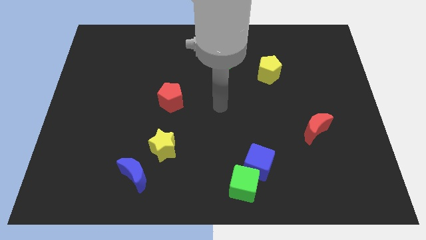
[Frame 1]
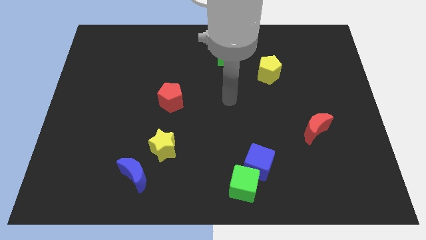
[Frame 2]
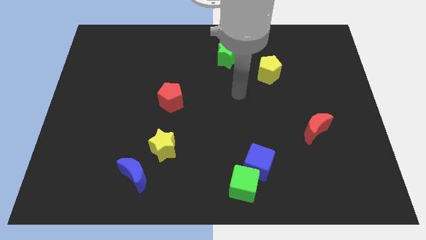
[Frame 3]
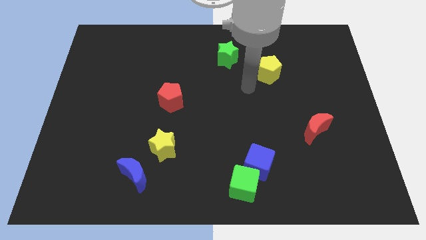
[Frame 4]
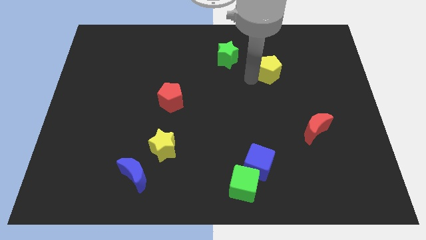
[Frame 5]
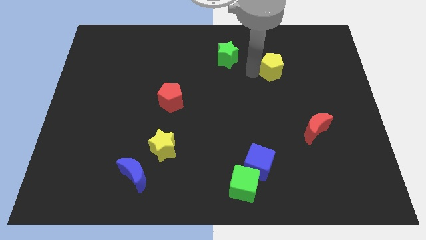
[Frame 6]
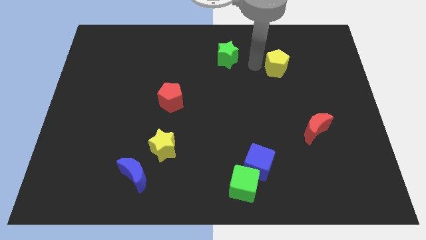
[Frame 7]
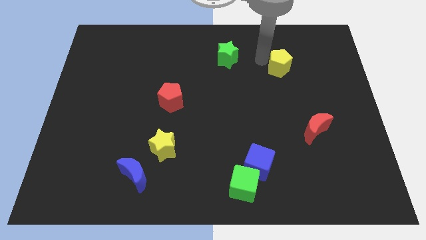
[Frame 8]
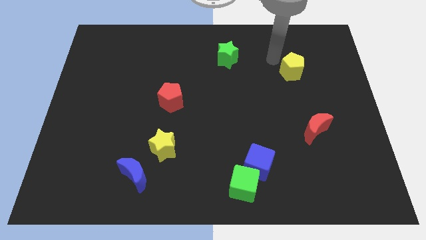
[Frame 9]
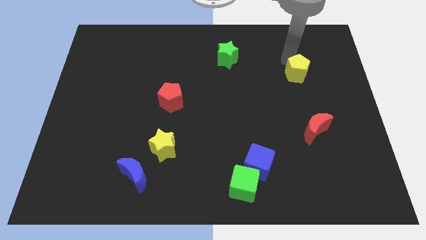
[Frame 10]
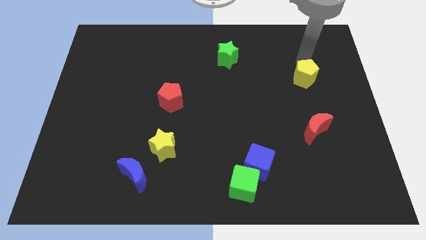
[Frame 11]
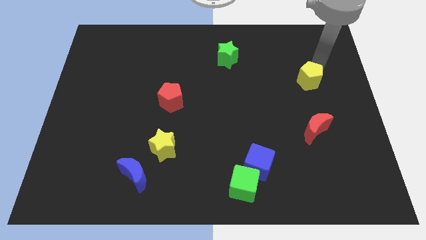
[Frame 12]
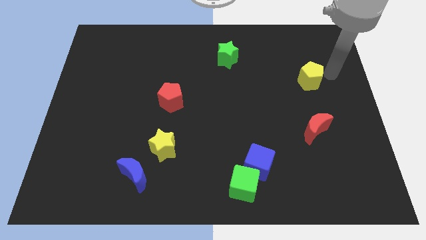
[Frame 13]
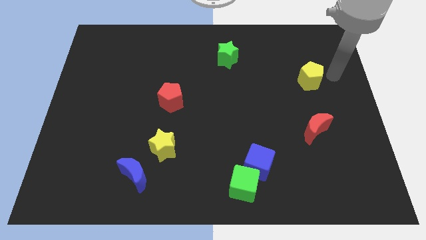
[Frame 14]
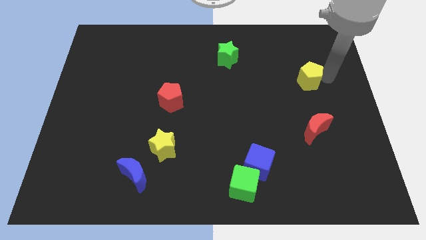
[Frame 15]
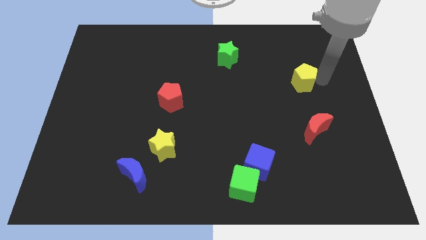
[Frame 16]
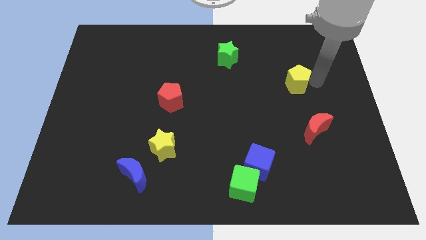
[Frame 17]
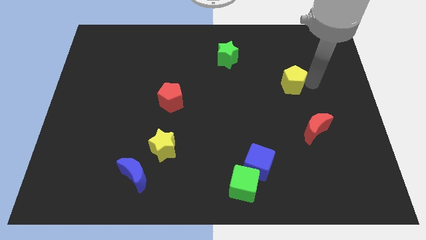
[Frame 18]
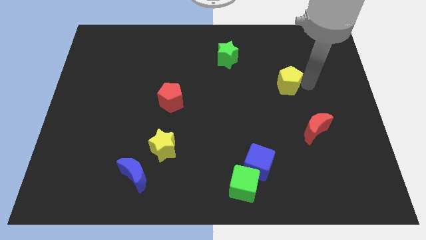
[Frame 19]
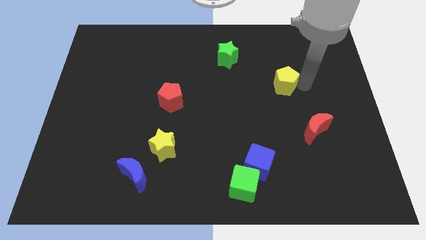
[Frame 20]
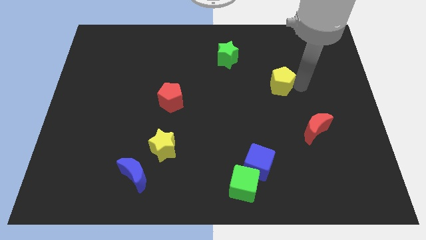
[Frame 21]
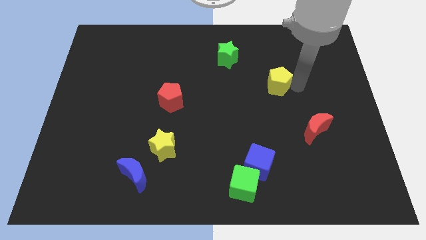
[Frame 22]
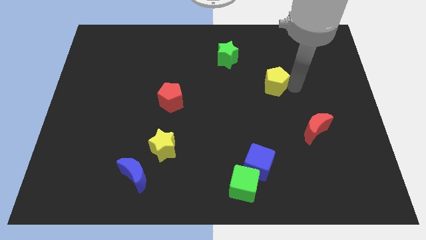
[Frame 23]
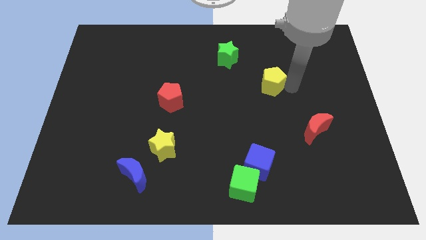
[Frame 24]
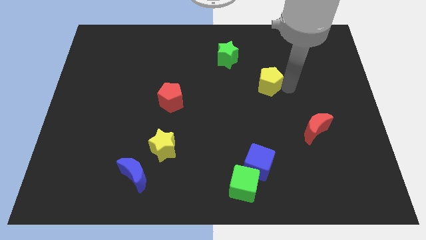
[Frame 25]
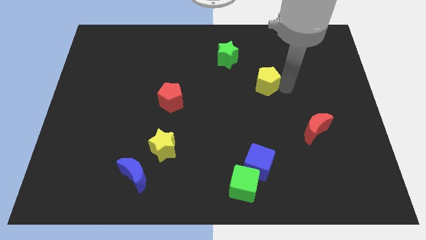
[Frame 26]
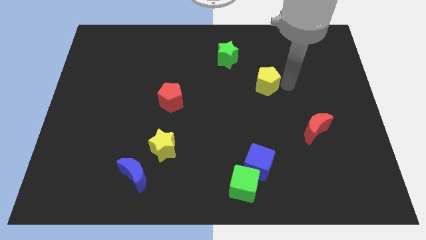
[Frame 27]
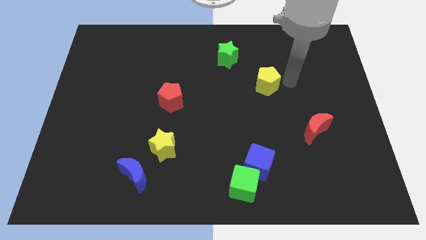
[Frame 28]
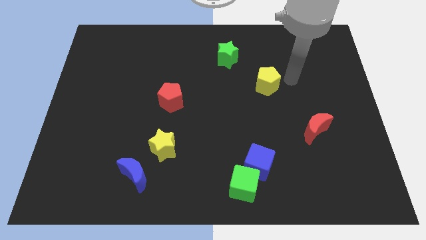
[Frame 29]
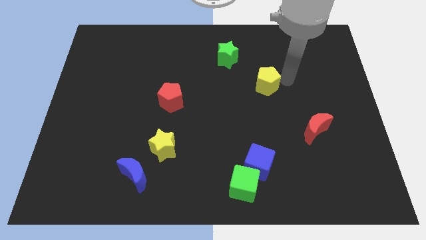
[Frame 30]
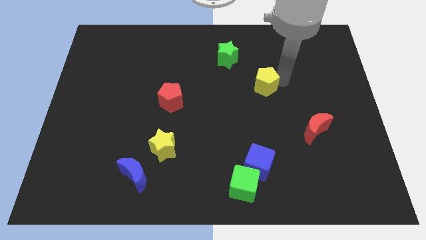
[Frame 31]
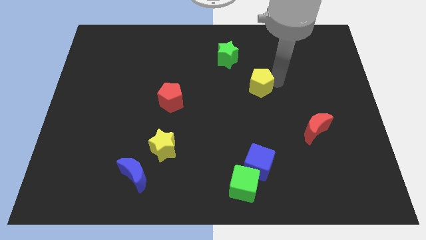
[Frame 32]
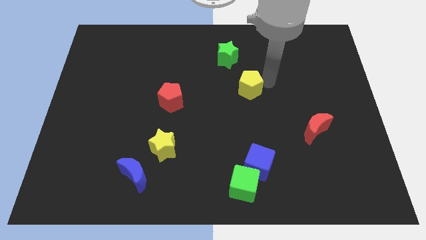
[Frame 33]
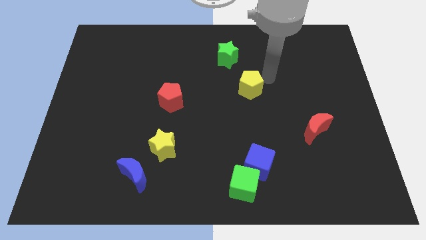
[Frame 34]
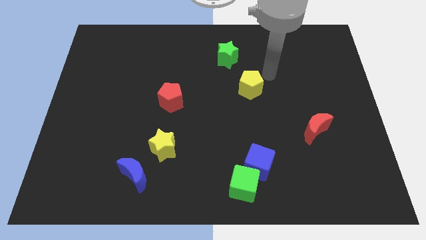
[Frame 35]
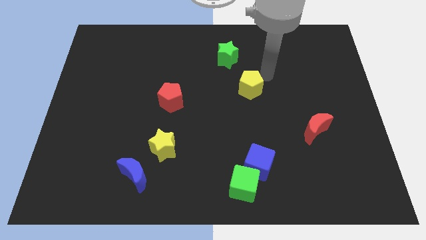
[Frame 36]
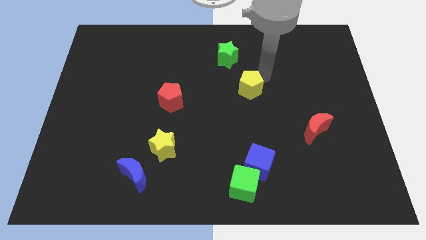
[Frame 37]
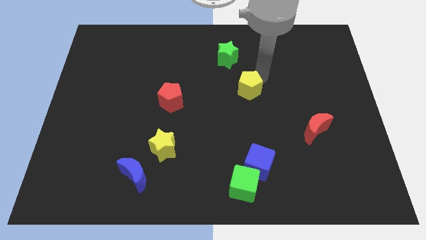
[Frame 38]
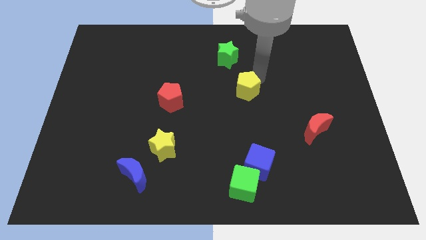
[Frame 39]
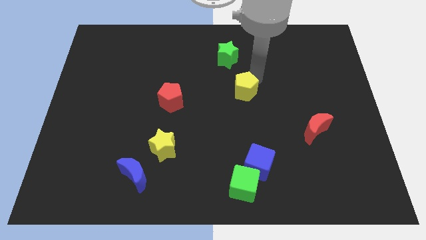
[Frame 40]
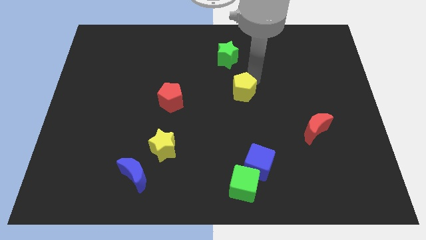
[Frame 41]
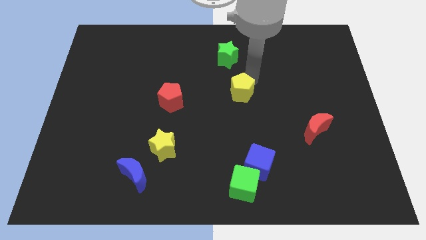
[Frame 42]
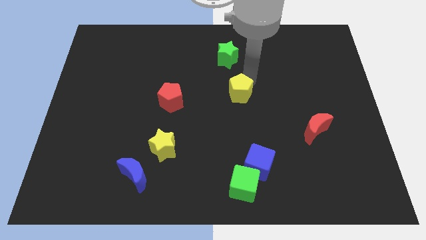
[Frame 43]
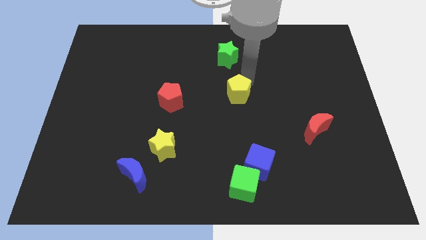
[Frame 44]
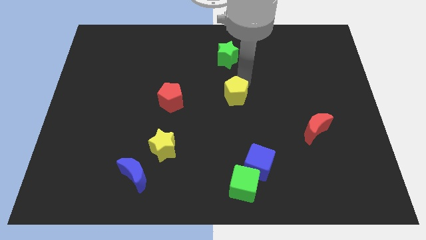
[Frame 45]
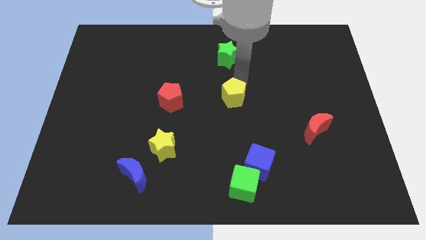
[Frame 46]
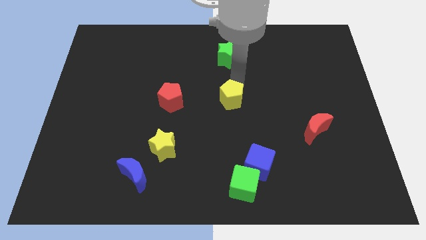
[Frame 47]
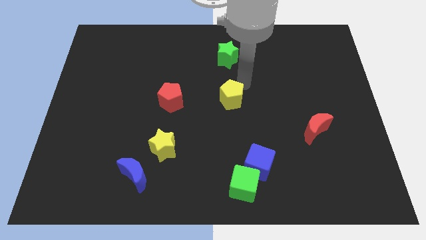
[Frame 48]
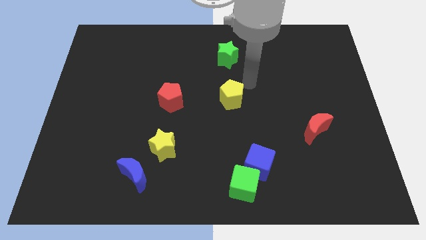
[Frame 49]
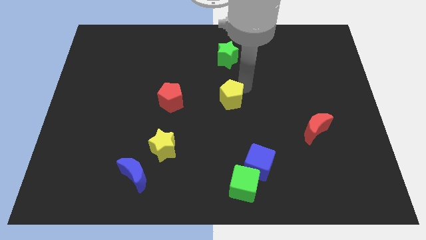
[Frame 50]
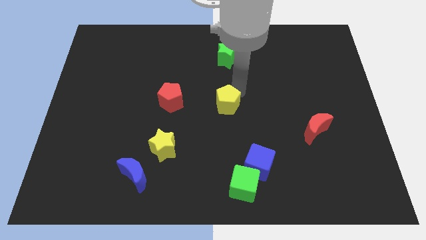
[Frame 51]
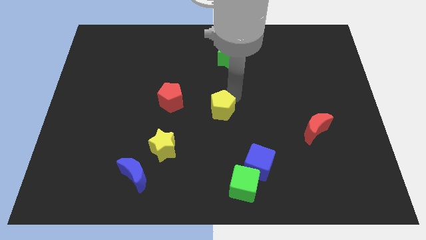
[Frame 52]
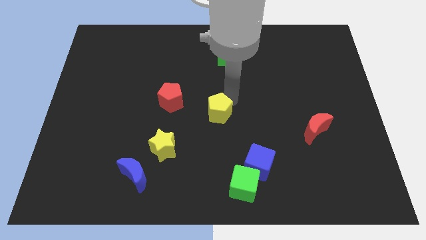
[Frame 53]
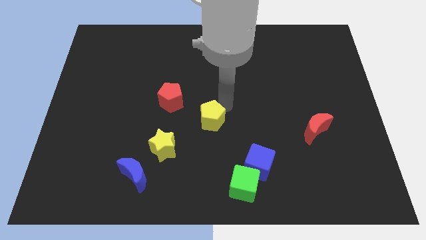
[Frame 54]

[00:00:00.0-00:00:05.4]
move the yellow pentagon to the top right of the yellow star

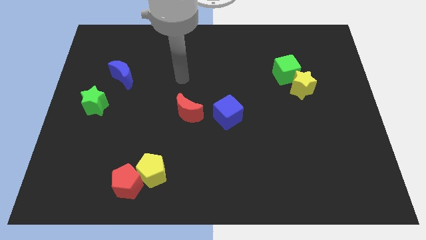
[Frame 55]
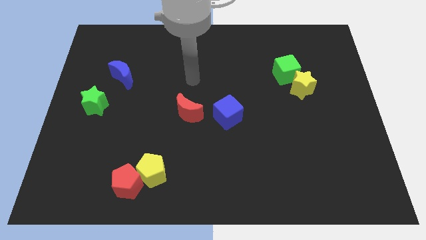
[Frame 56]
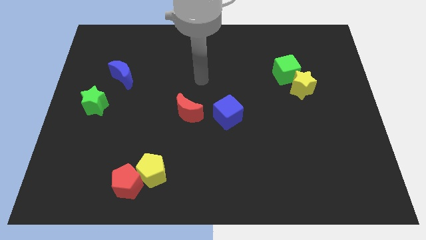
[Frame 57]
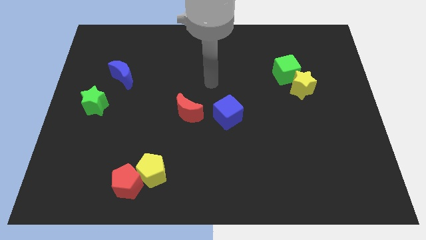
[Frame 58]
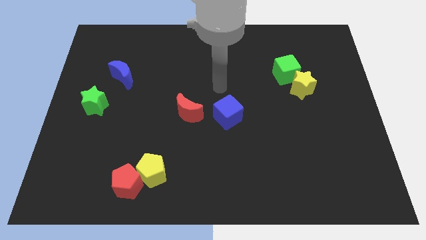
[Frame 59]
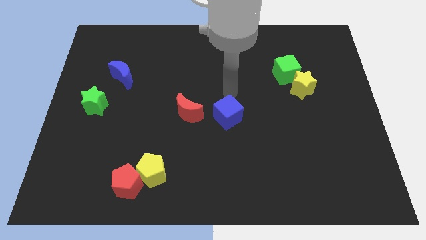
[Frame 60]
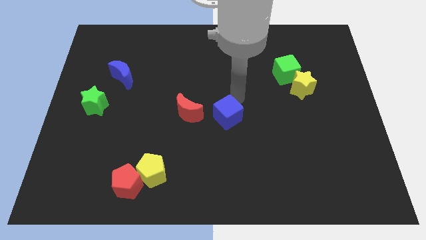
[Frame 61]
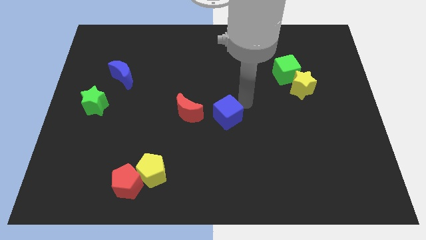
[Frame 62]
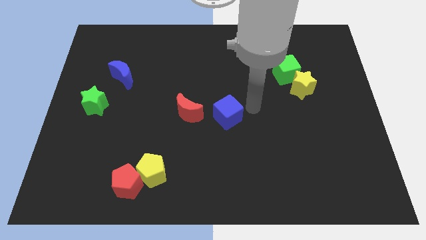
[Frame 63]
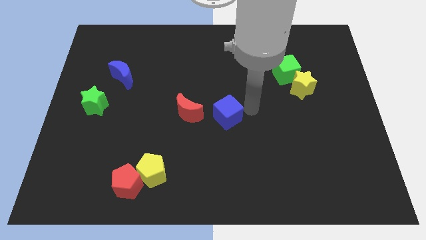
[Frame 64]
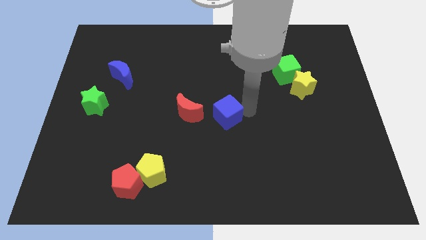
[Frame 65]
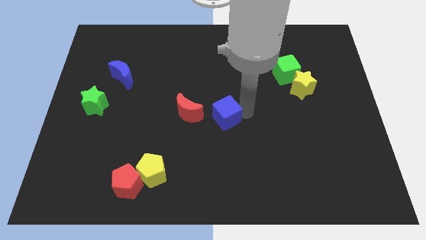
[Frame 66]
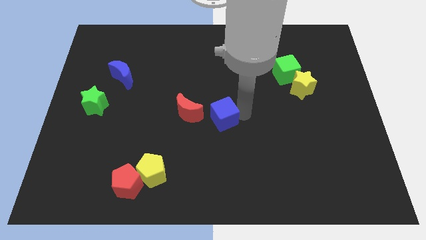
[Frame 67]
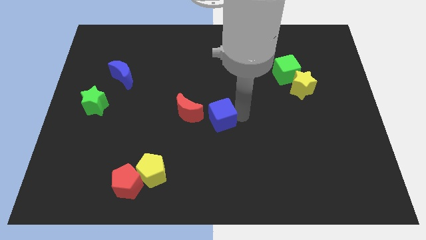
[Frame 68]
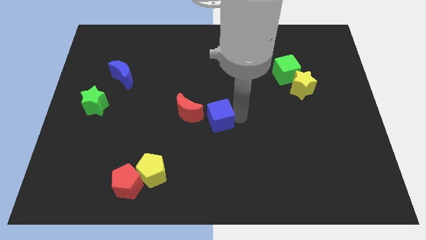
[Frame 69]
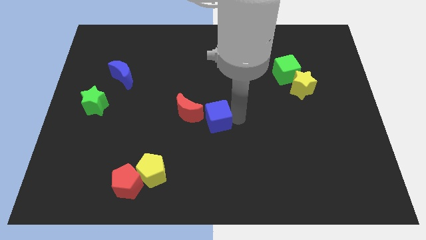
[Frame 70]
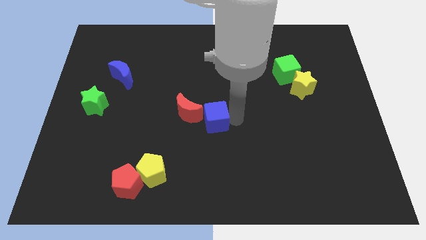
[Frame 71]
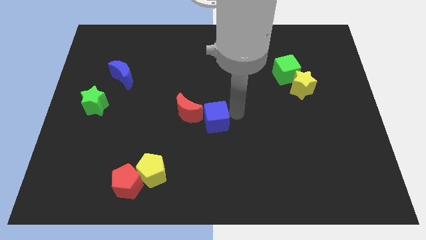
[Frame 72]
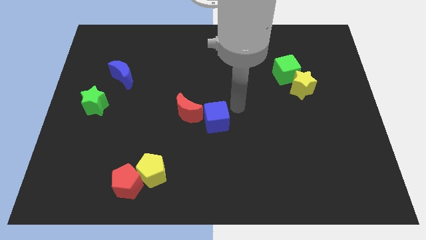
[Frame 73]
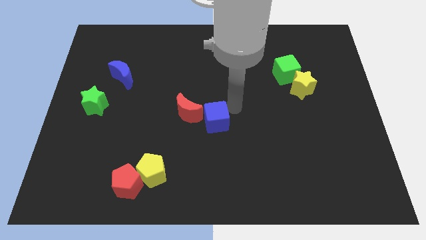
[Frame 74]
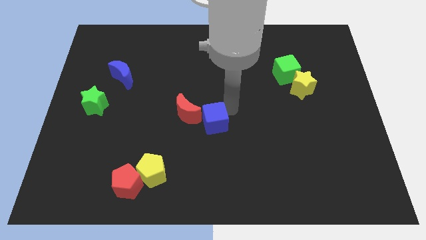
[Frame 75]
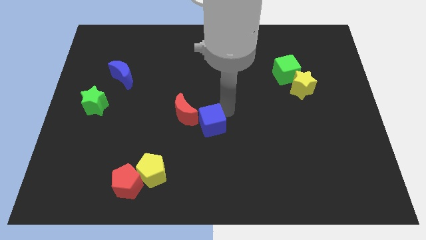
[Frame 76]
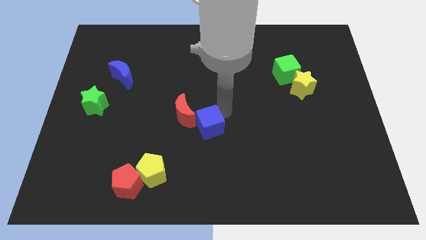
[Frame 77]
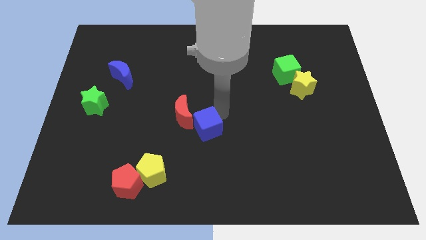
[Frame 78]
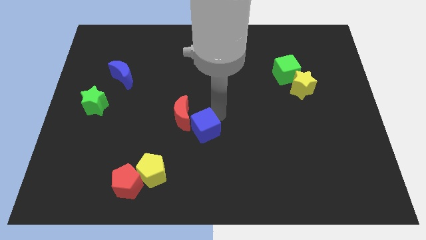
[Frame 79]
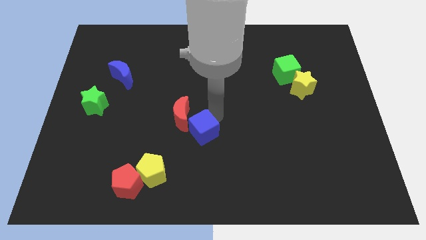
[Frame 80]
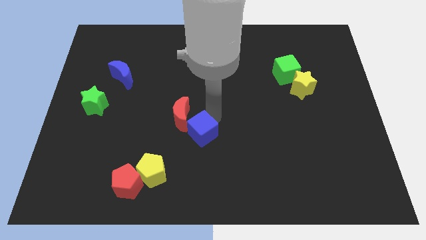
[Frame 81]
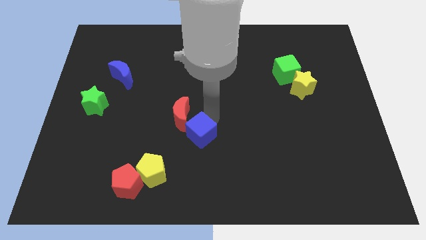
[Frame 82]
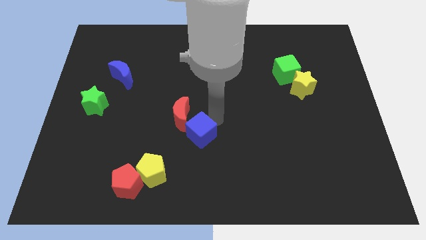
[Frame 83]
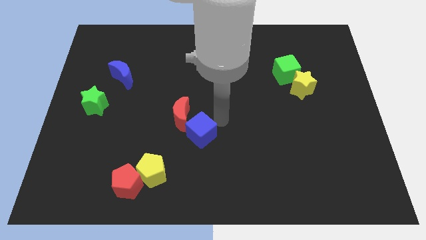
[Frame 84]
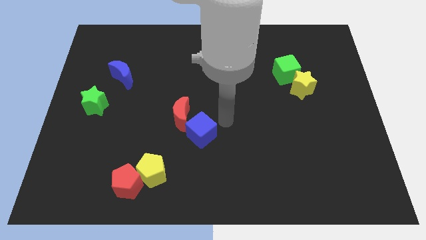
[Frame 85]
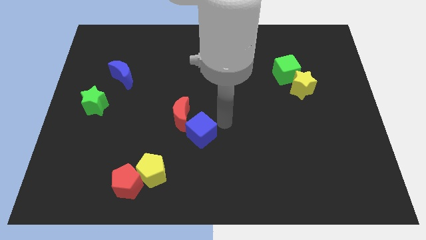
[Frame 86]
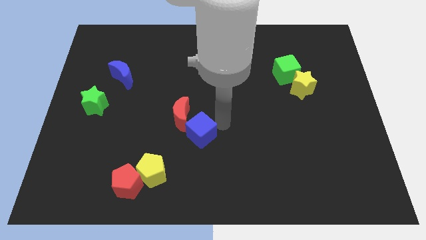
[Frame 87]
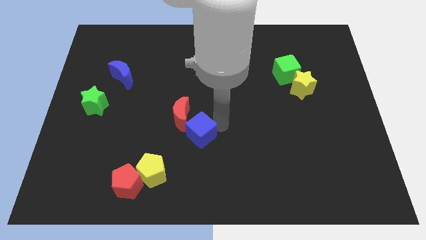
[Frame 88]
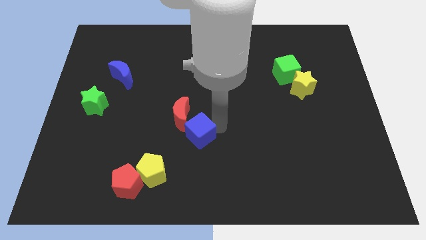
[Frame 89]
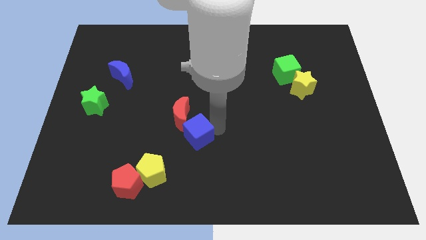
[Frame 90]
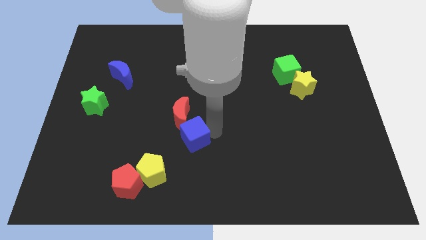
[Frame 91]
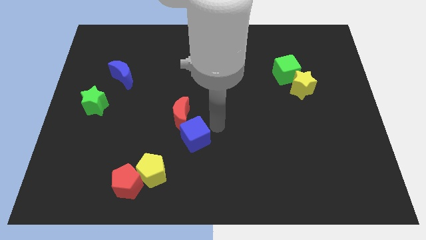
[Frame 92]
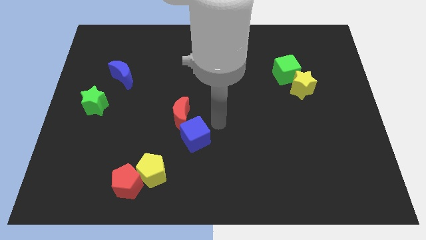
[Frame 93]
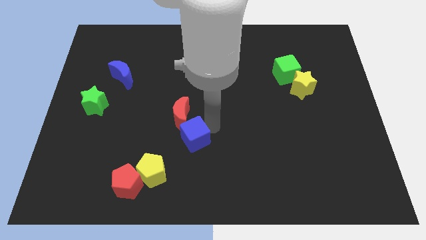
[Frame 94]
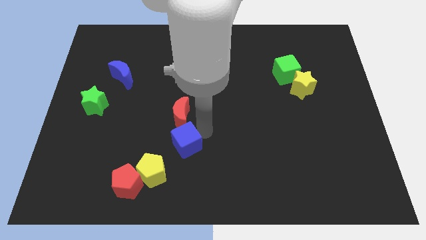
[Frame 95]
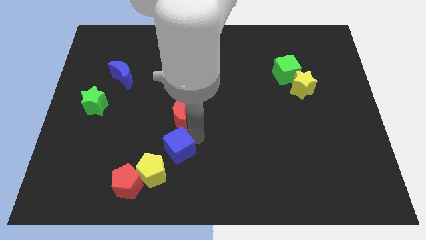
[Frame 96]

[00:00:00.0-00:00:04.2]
put the blue cube to the top right side of the red pentagon
